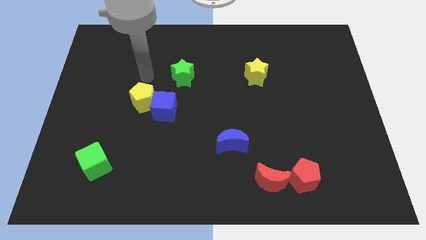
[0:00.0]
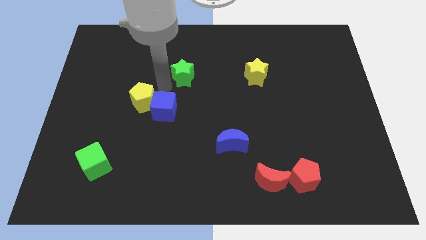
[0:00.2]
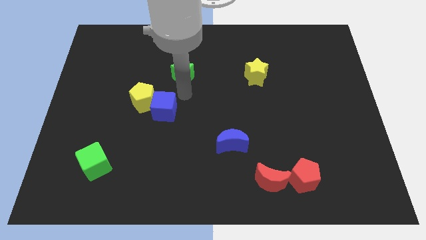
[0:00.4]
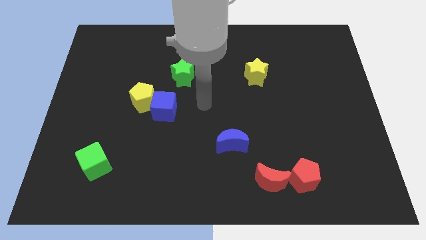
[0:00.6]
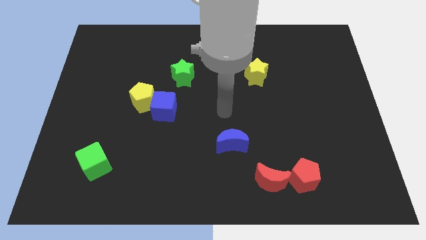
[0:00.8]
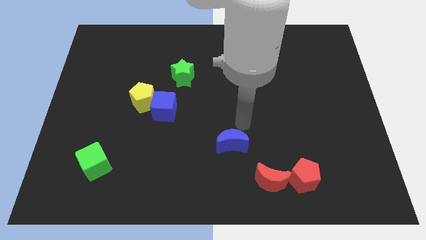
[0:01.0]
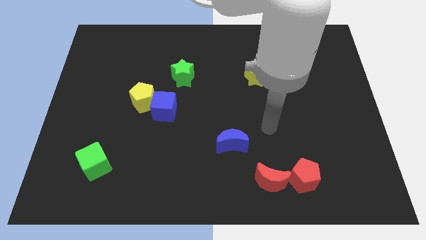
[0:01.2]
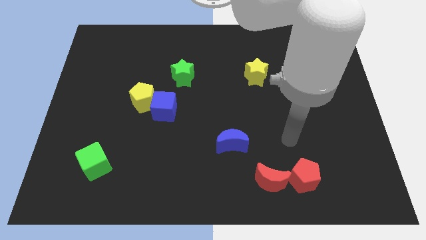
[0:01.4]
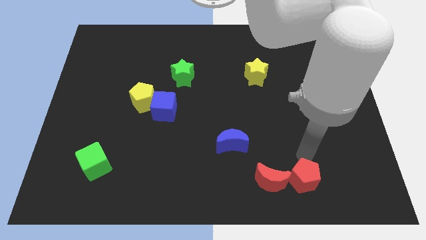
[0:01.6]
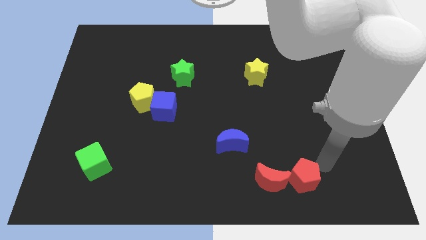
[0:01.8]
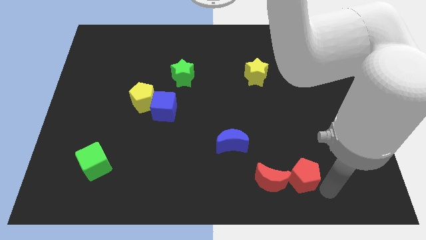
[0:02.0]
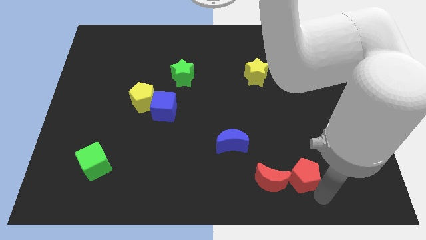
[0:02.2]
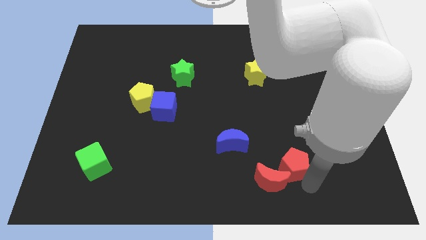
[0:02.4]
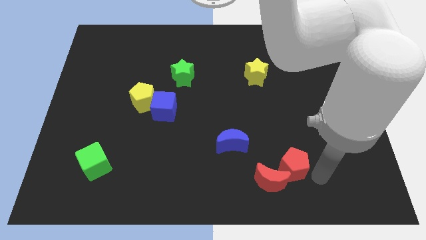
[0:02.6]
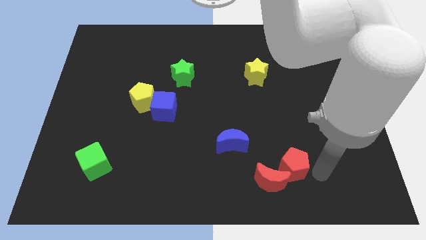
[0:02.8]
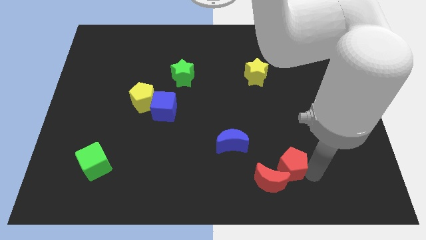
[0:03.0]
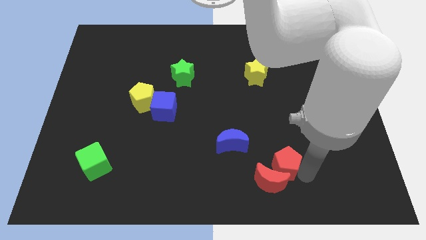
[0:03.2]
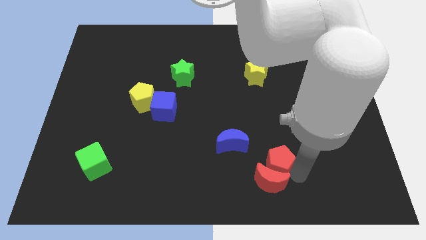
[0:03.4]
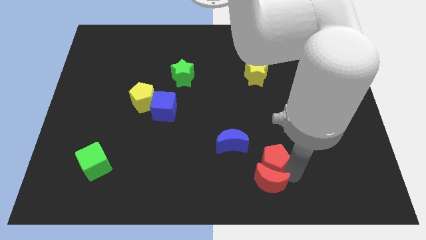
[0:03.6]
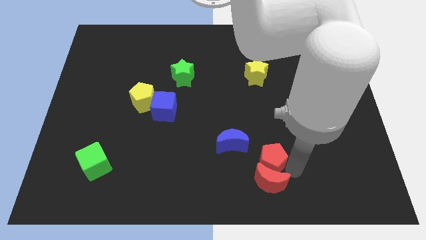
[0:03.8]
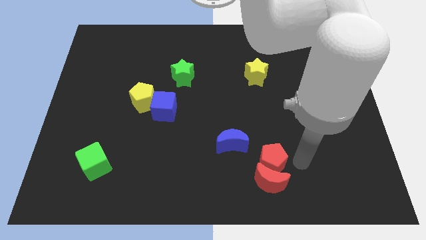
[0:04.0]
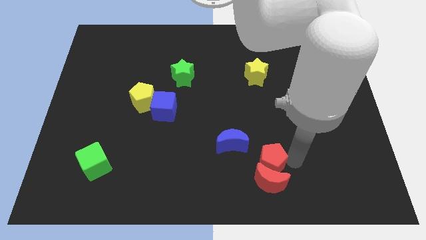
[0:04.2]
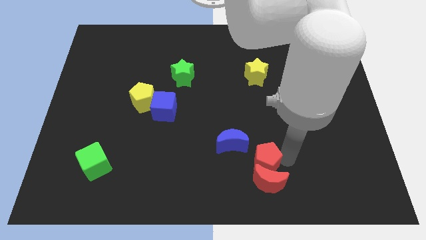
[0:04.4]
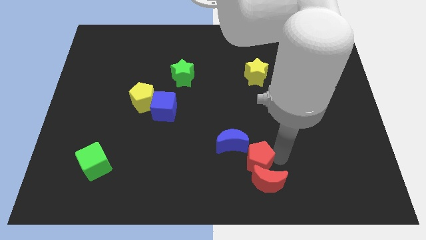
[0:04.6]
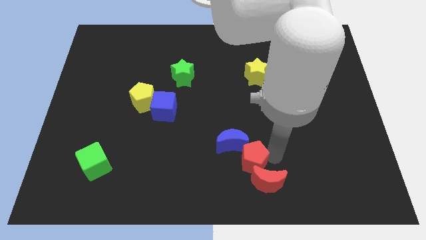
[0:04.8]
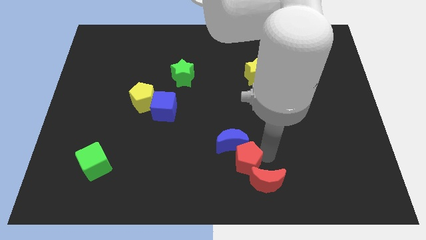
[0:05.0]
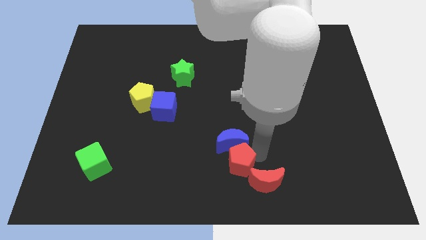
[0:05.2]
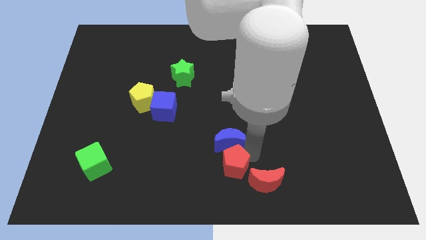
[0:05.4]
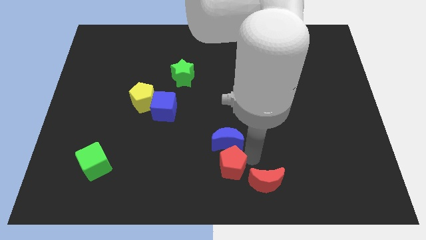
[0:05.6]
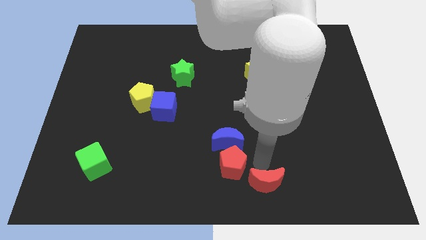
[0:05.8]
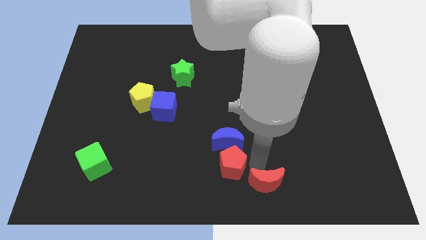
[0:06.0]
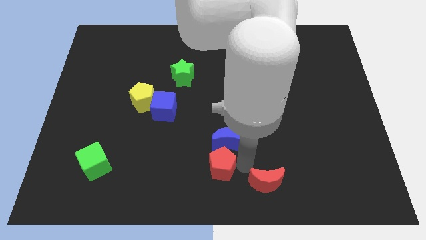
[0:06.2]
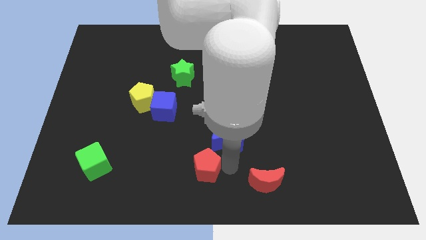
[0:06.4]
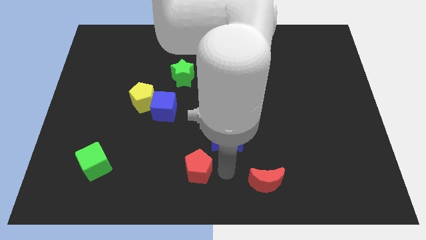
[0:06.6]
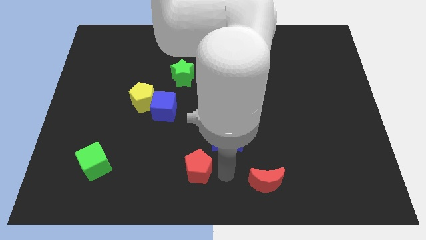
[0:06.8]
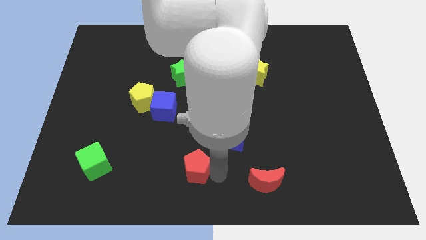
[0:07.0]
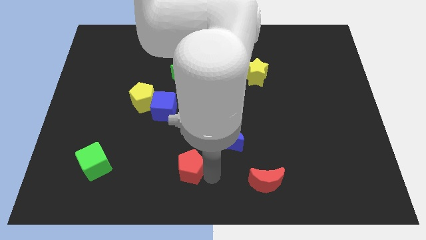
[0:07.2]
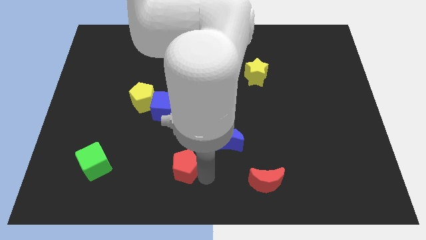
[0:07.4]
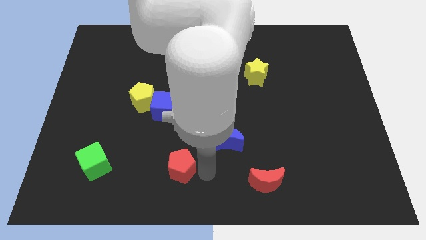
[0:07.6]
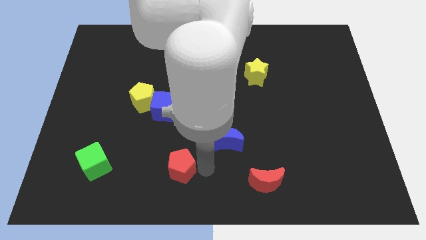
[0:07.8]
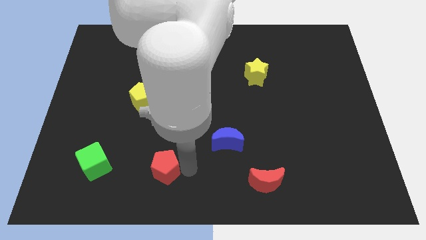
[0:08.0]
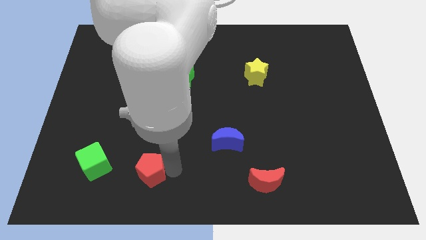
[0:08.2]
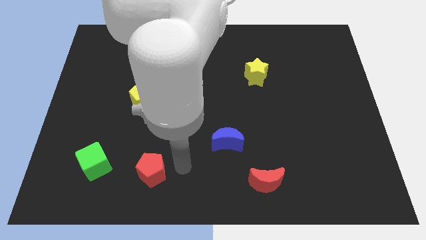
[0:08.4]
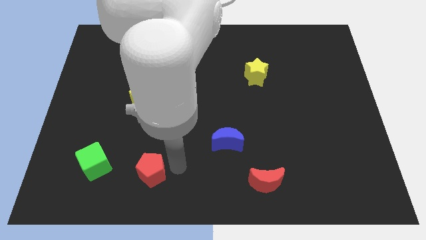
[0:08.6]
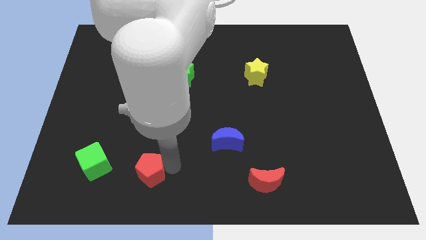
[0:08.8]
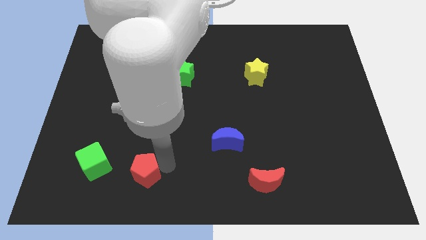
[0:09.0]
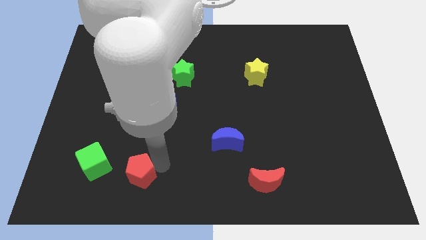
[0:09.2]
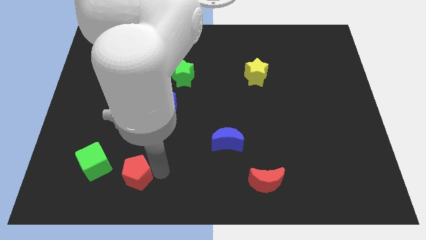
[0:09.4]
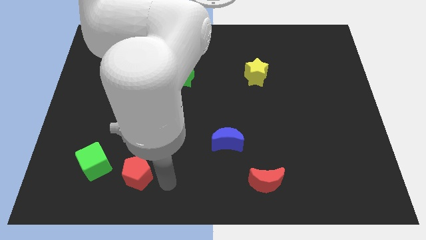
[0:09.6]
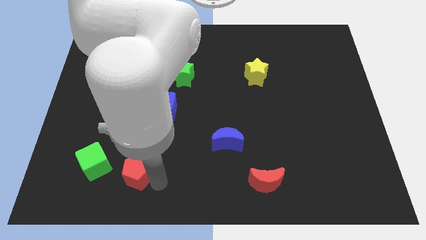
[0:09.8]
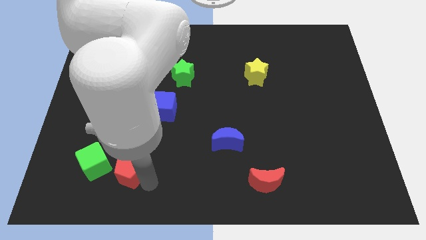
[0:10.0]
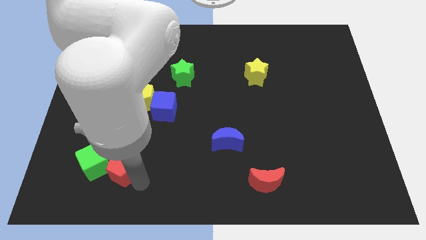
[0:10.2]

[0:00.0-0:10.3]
put the red pentagon next to the green cube

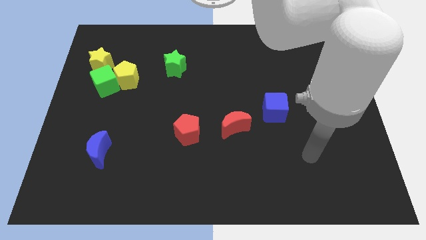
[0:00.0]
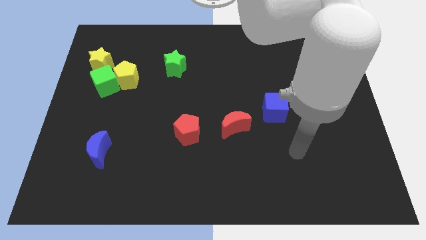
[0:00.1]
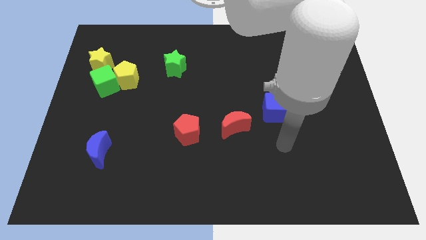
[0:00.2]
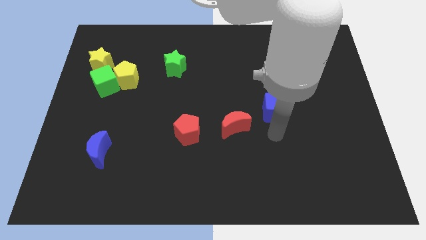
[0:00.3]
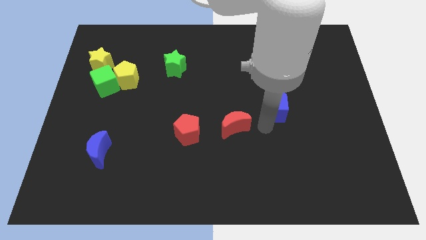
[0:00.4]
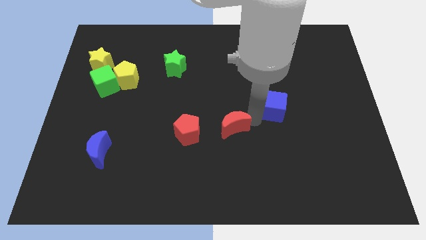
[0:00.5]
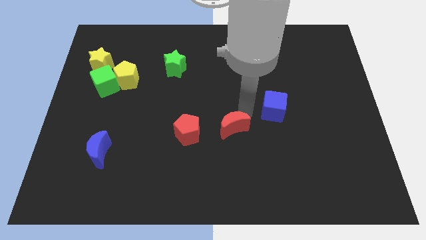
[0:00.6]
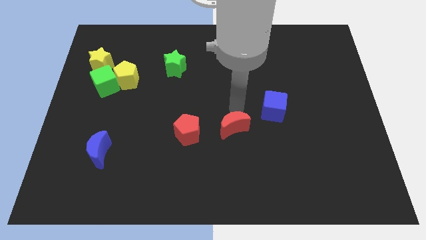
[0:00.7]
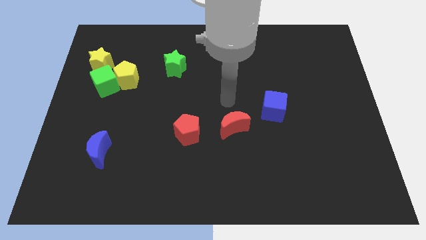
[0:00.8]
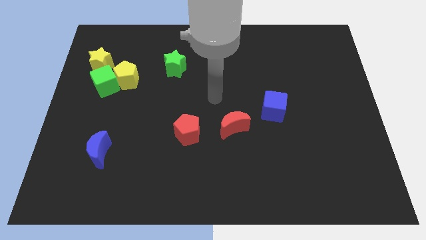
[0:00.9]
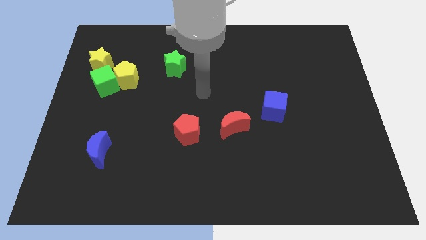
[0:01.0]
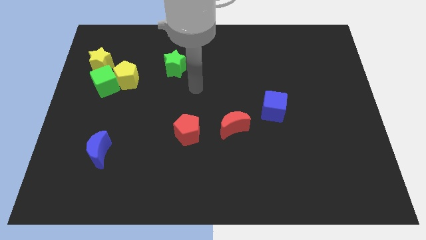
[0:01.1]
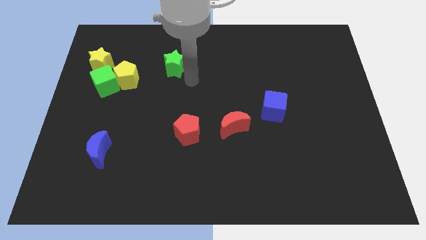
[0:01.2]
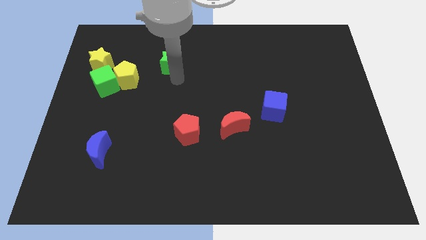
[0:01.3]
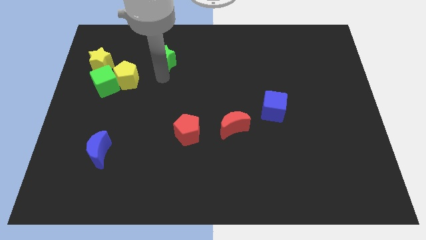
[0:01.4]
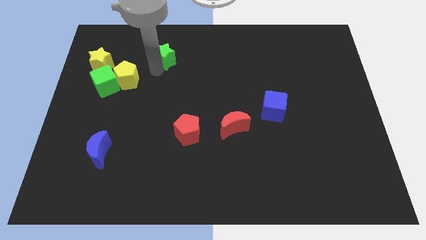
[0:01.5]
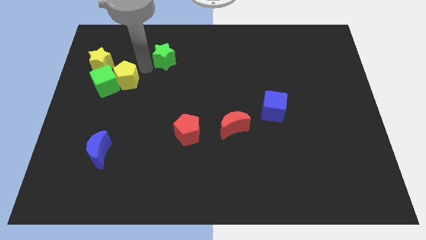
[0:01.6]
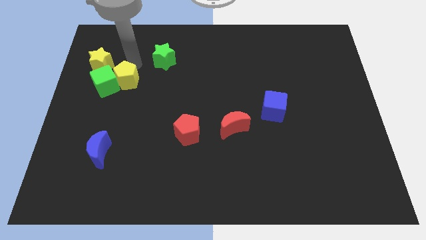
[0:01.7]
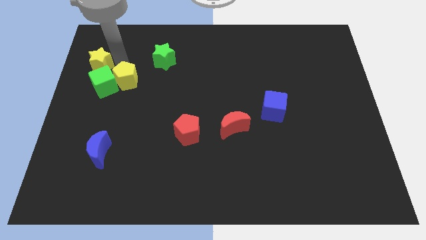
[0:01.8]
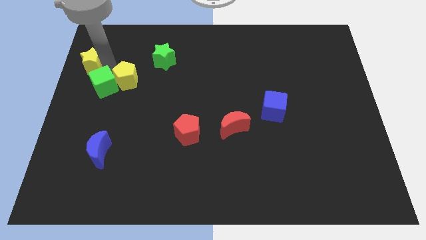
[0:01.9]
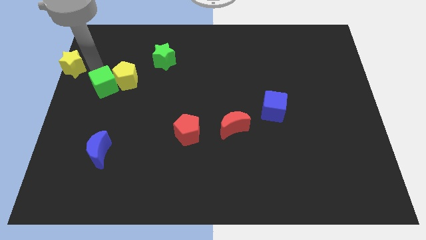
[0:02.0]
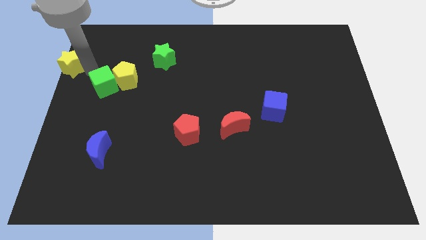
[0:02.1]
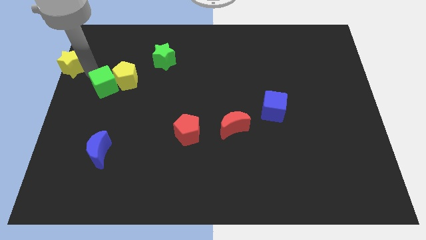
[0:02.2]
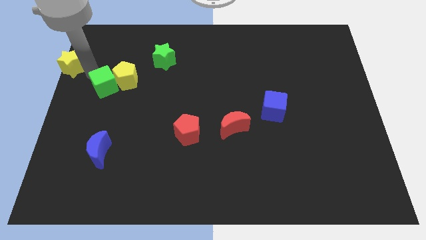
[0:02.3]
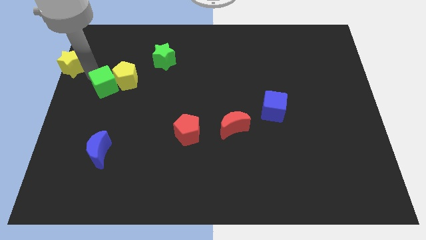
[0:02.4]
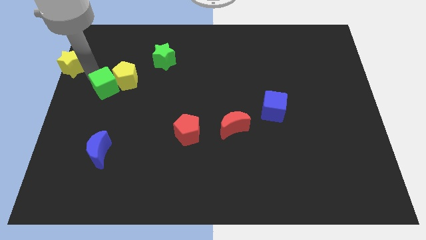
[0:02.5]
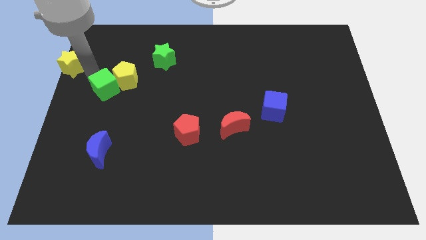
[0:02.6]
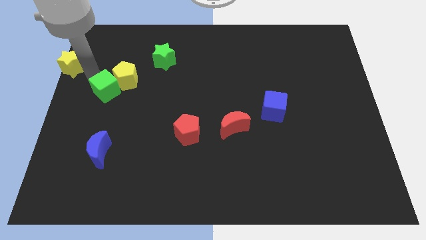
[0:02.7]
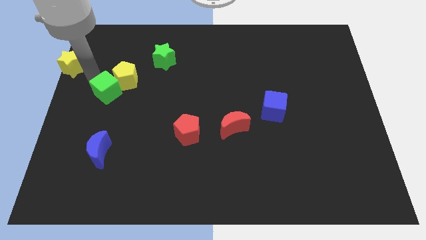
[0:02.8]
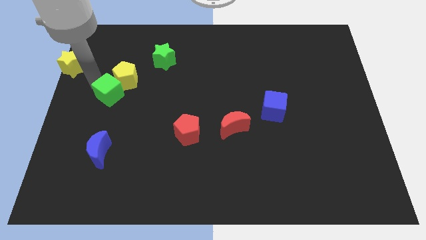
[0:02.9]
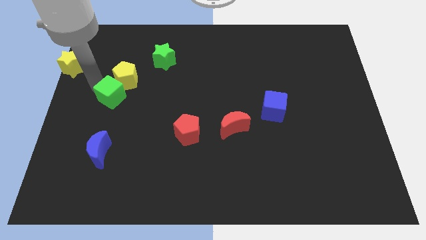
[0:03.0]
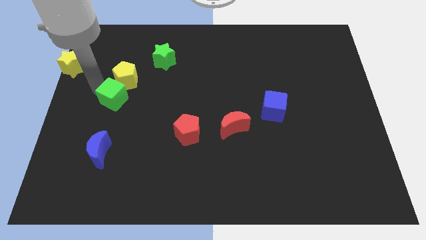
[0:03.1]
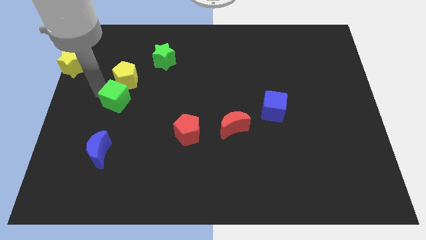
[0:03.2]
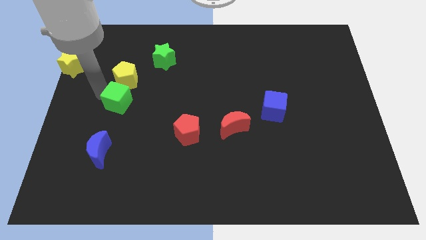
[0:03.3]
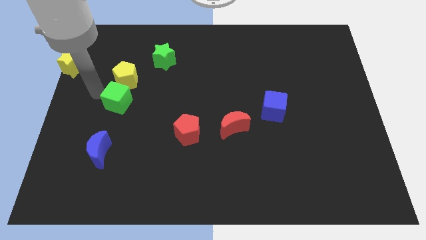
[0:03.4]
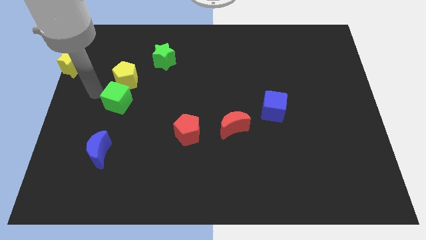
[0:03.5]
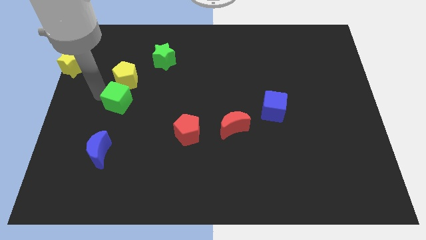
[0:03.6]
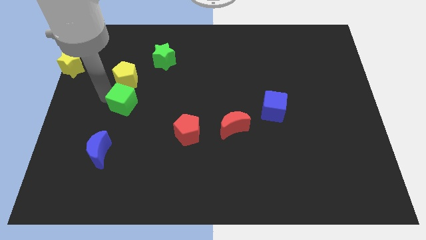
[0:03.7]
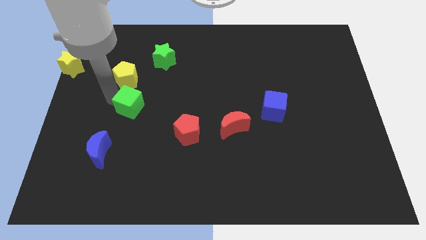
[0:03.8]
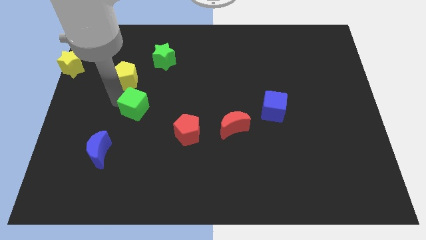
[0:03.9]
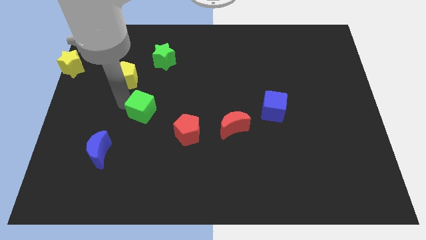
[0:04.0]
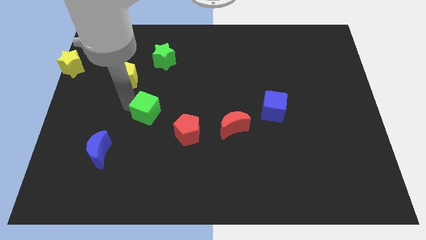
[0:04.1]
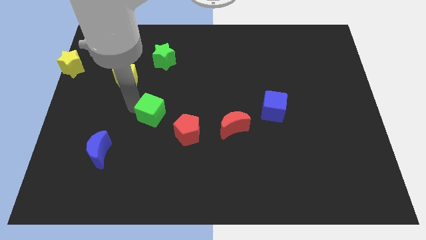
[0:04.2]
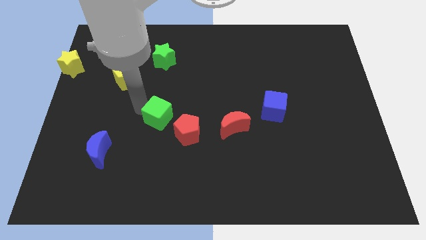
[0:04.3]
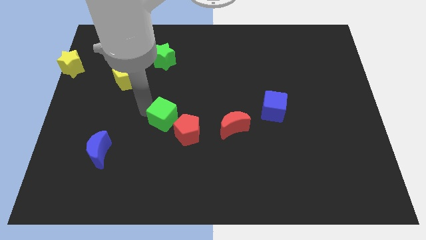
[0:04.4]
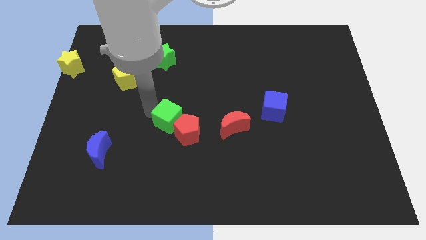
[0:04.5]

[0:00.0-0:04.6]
put the green cube next to the red pentagon
